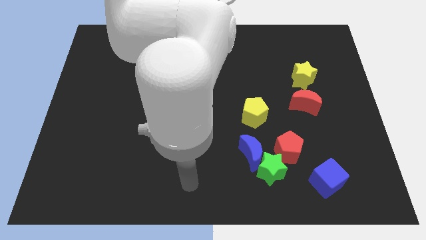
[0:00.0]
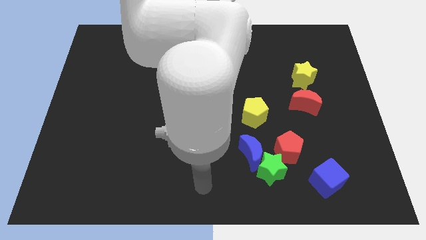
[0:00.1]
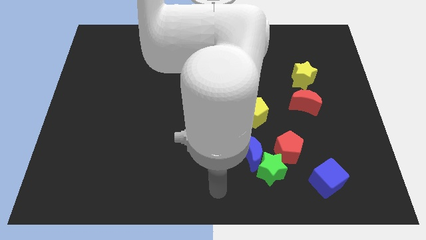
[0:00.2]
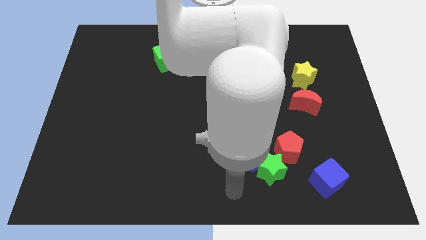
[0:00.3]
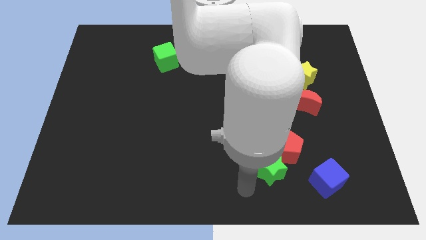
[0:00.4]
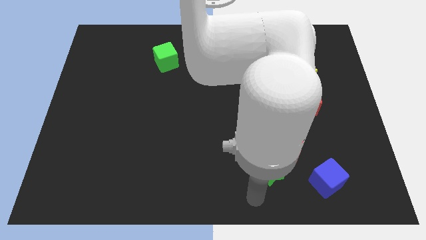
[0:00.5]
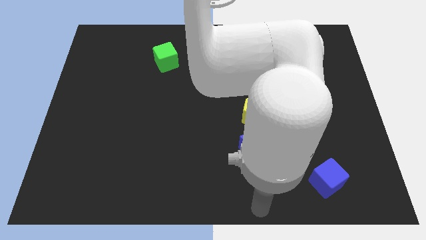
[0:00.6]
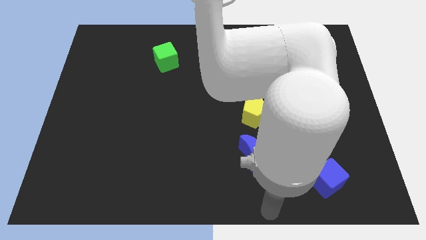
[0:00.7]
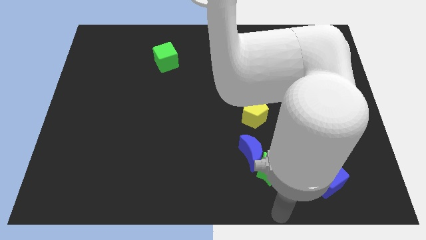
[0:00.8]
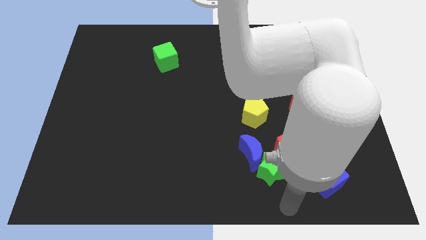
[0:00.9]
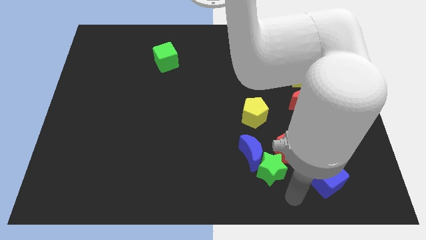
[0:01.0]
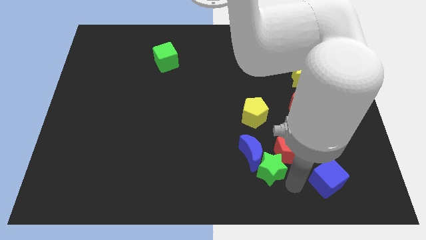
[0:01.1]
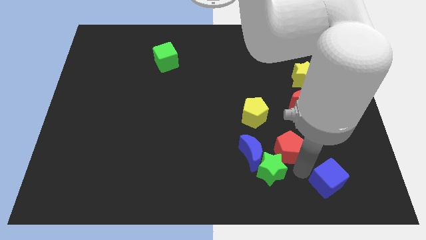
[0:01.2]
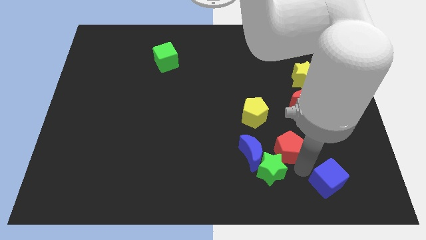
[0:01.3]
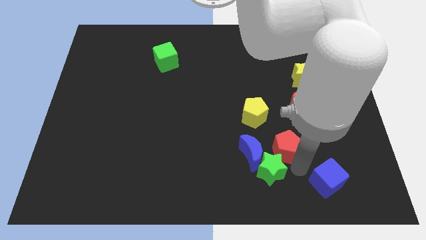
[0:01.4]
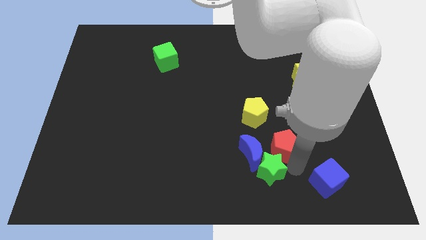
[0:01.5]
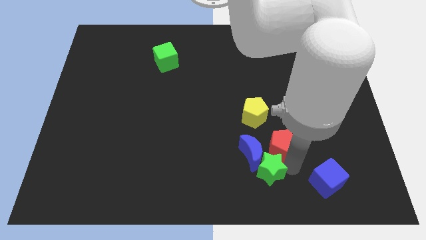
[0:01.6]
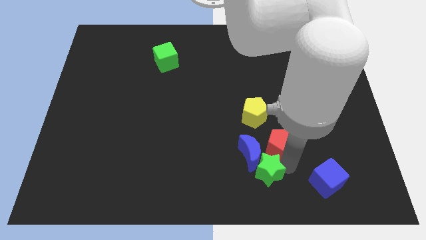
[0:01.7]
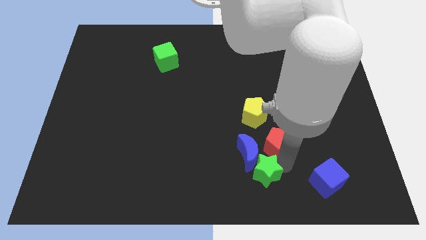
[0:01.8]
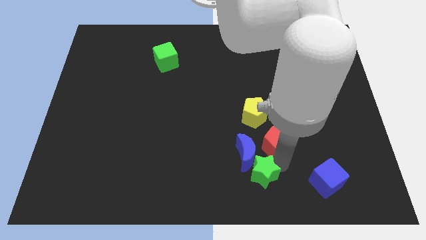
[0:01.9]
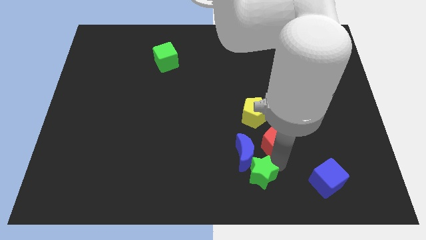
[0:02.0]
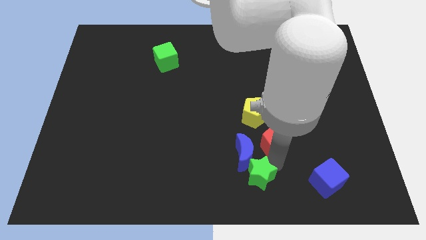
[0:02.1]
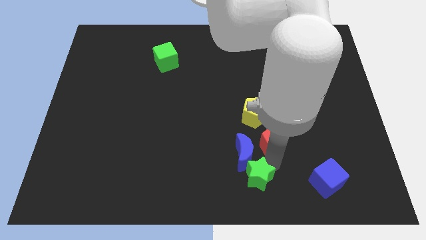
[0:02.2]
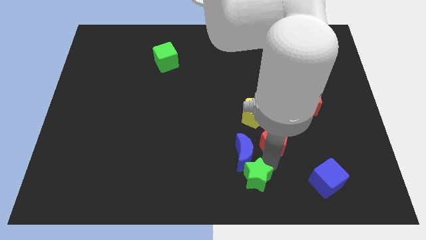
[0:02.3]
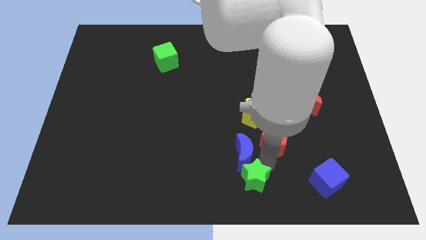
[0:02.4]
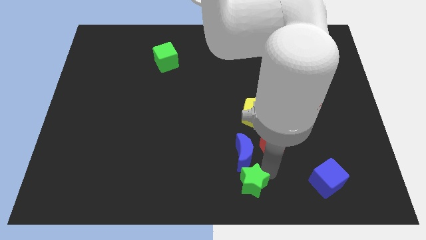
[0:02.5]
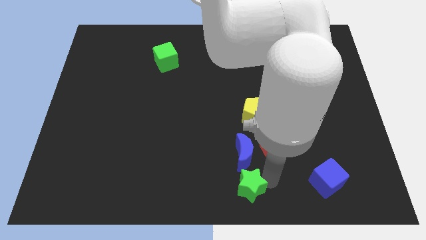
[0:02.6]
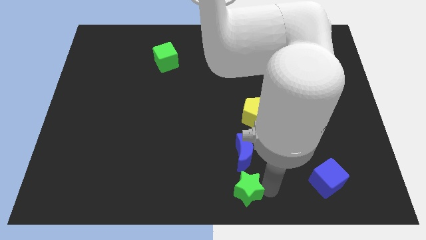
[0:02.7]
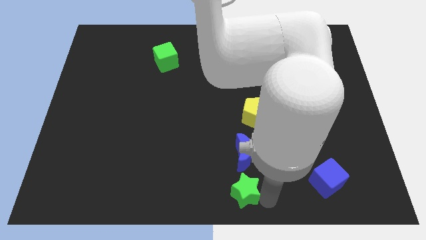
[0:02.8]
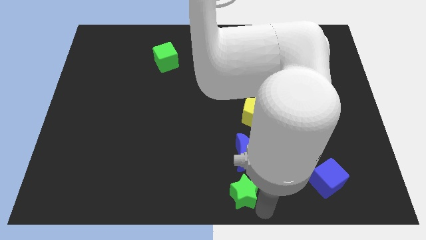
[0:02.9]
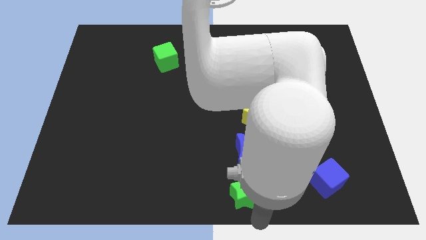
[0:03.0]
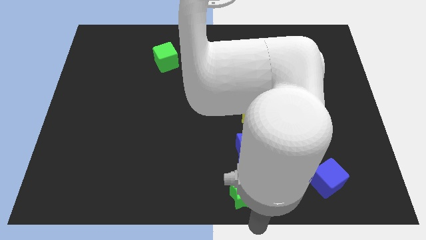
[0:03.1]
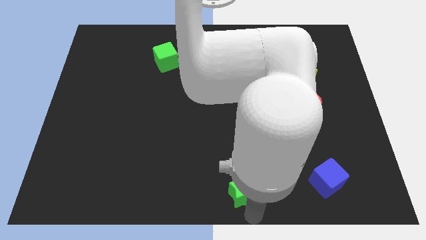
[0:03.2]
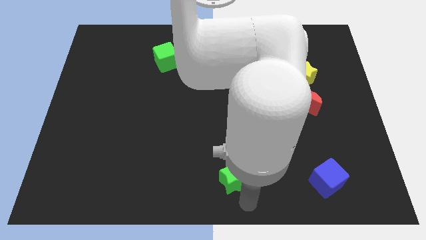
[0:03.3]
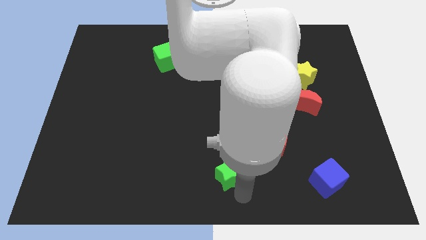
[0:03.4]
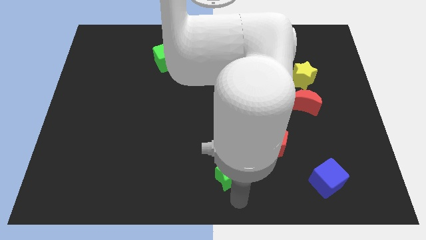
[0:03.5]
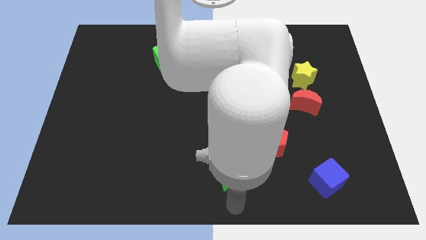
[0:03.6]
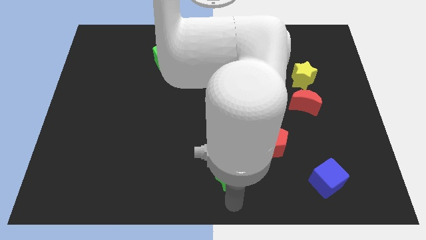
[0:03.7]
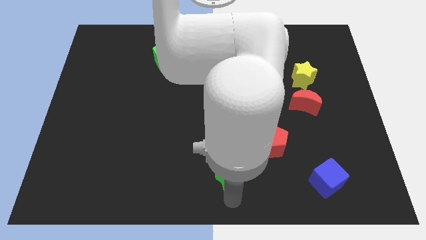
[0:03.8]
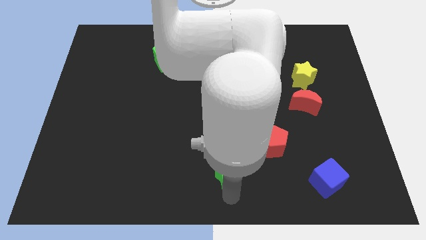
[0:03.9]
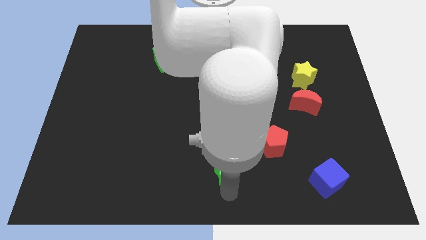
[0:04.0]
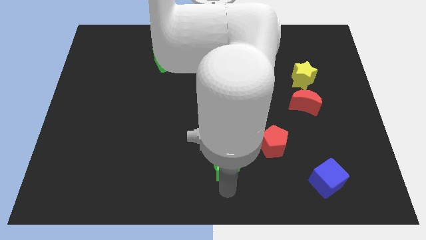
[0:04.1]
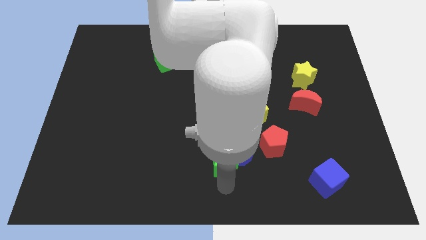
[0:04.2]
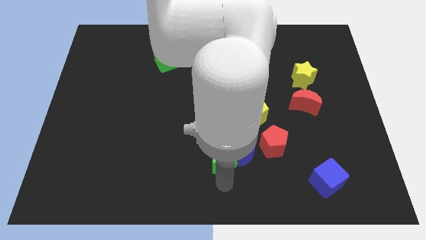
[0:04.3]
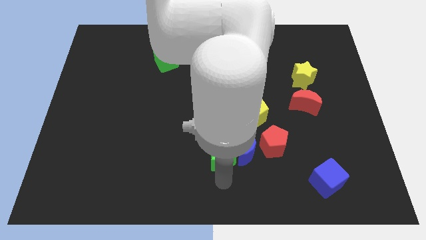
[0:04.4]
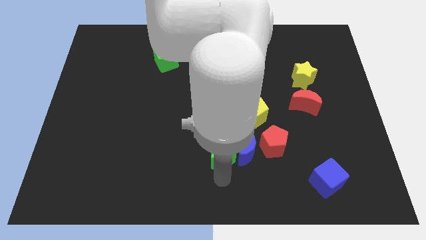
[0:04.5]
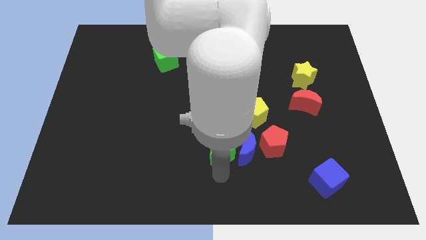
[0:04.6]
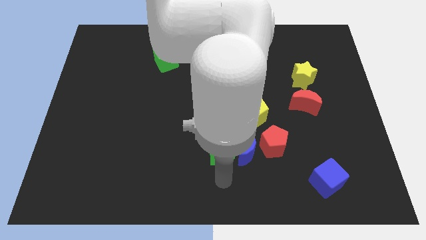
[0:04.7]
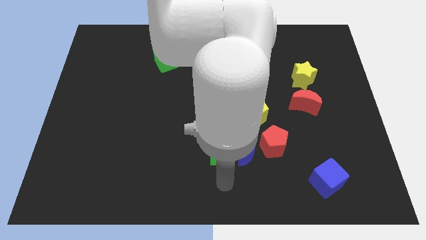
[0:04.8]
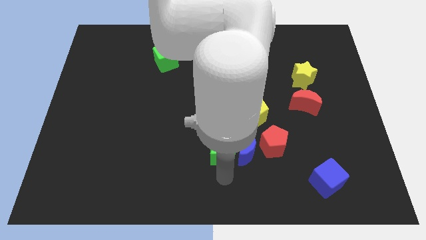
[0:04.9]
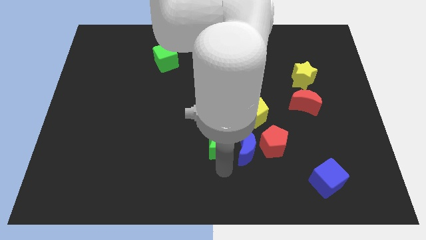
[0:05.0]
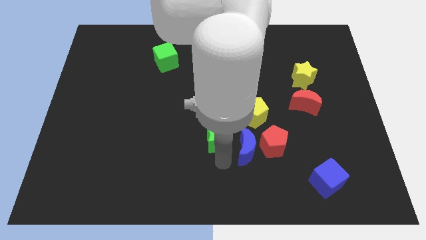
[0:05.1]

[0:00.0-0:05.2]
put the green star to the center
